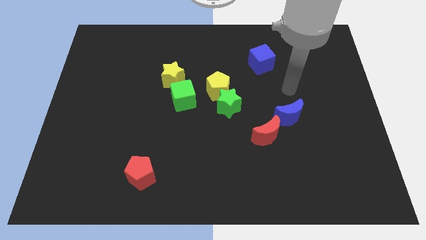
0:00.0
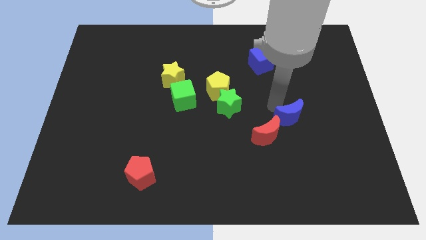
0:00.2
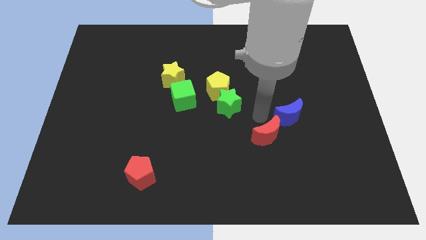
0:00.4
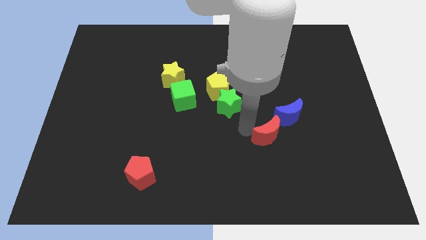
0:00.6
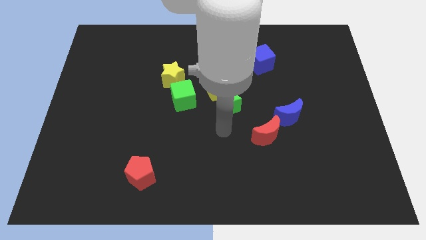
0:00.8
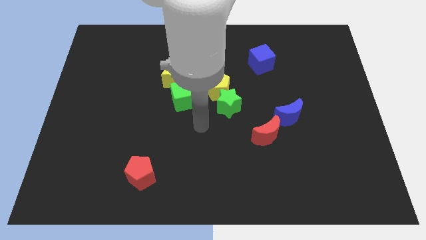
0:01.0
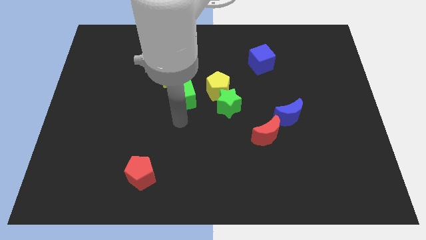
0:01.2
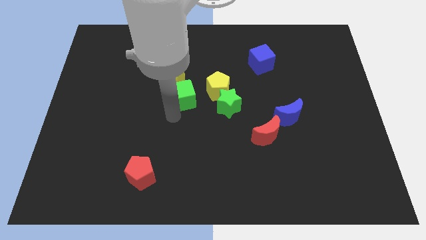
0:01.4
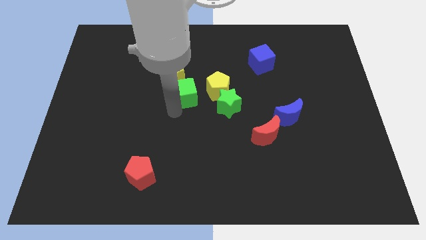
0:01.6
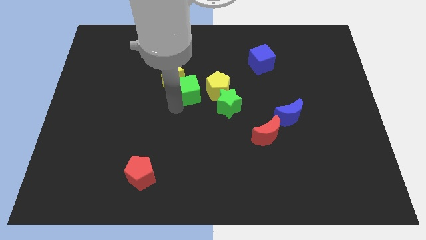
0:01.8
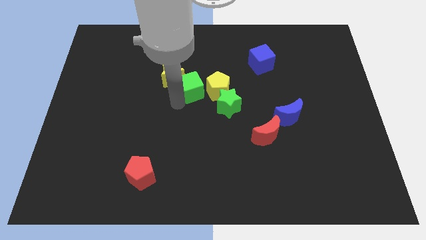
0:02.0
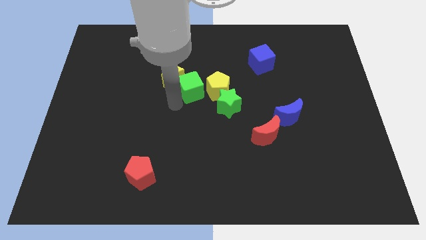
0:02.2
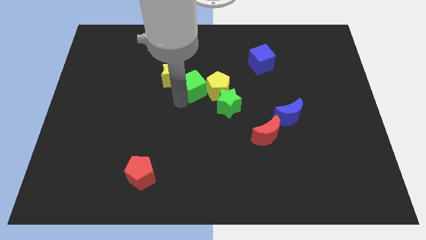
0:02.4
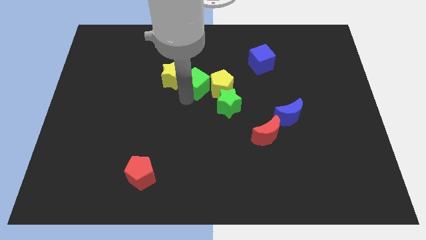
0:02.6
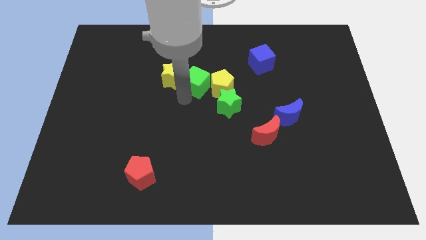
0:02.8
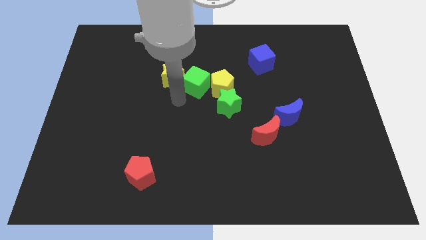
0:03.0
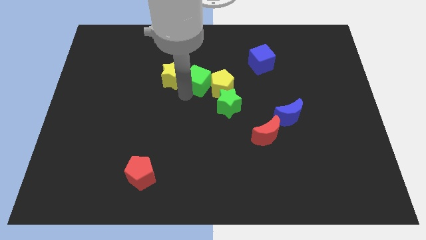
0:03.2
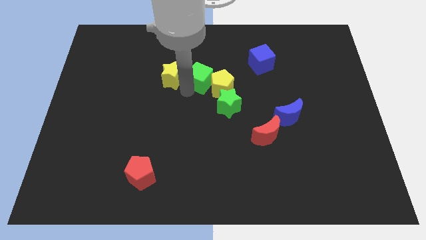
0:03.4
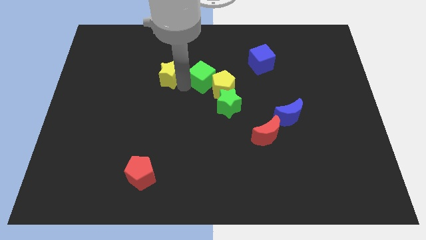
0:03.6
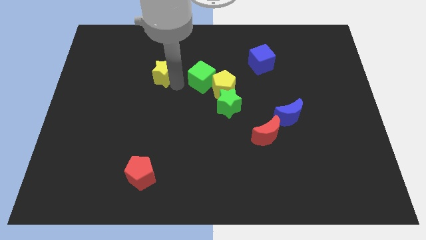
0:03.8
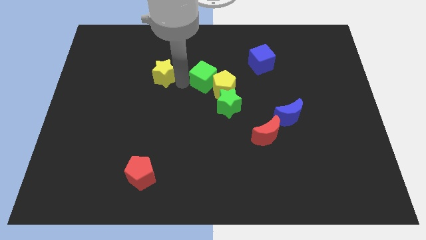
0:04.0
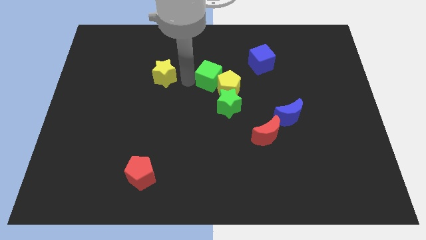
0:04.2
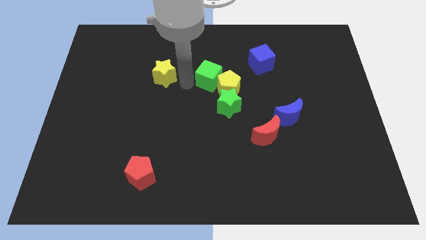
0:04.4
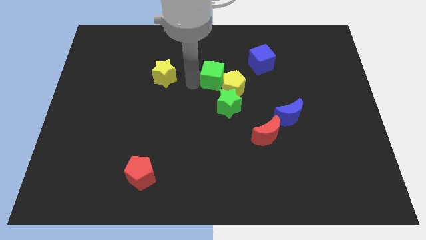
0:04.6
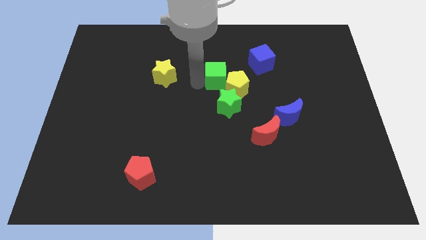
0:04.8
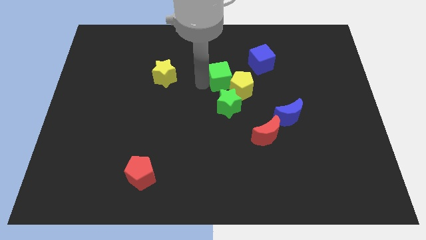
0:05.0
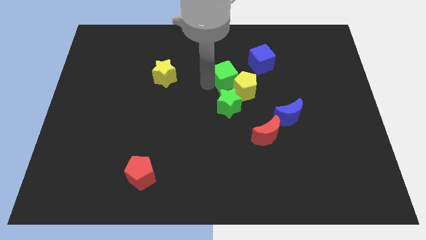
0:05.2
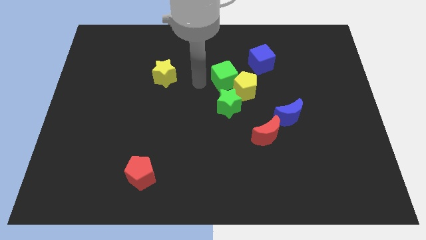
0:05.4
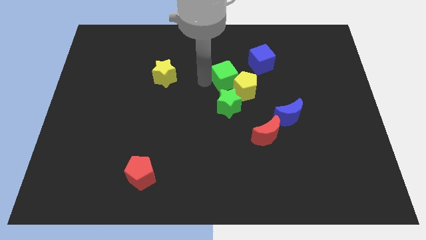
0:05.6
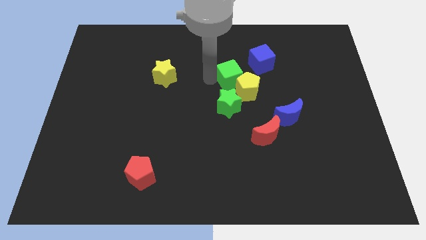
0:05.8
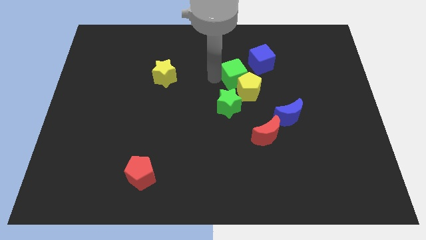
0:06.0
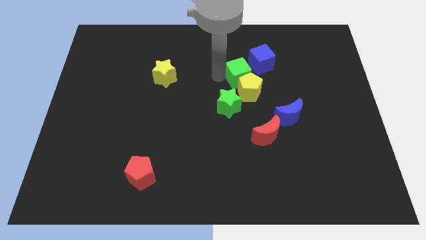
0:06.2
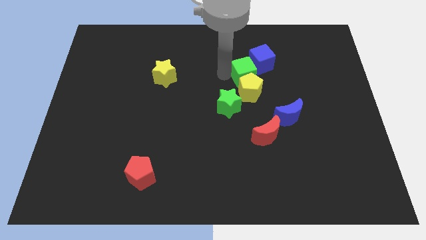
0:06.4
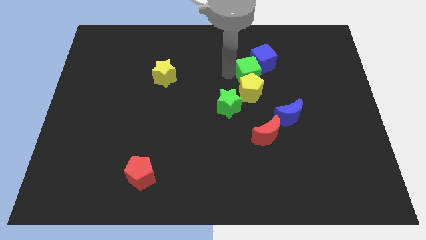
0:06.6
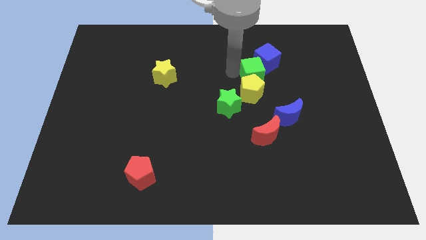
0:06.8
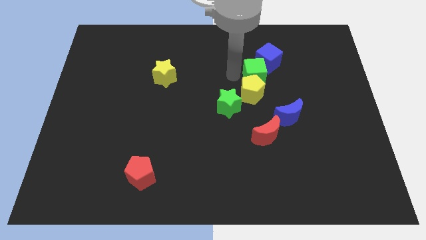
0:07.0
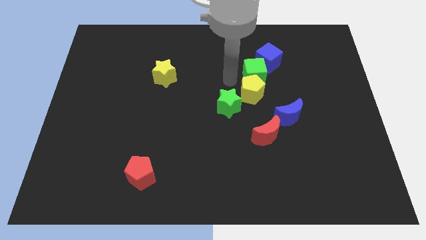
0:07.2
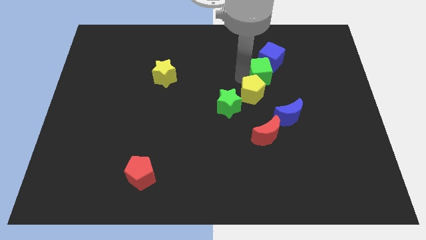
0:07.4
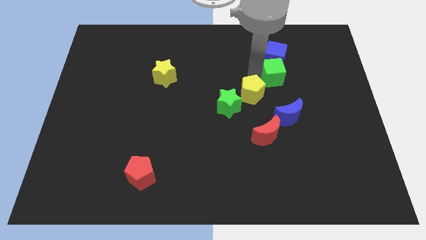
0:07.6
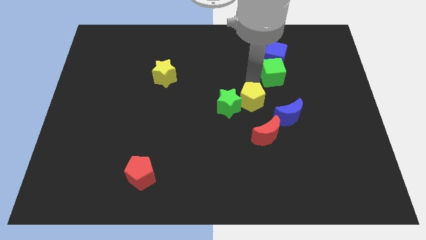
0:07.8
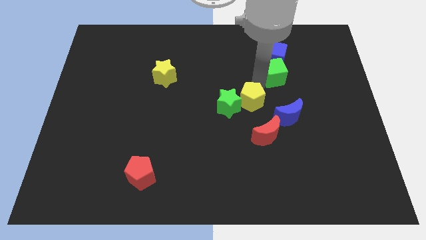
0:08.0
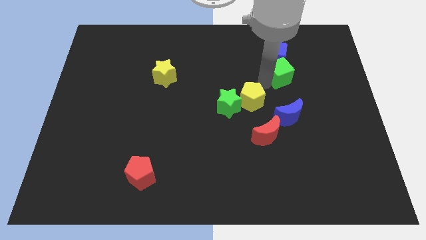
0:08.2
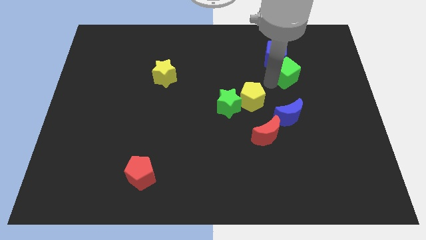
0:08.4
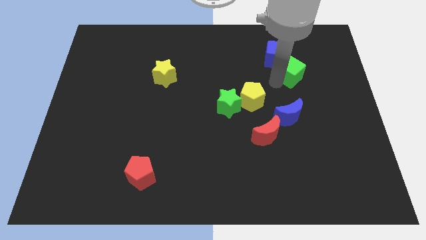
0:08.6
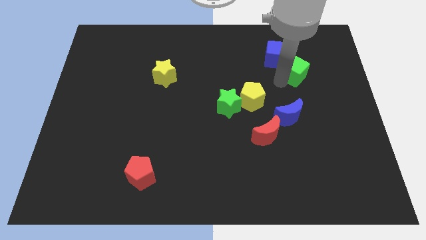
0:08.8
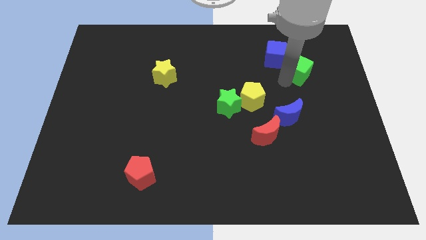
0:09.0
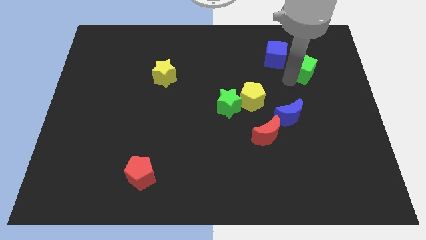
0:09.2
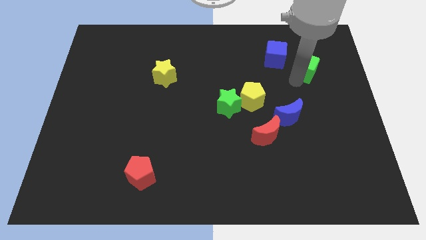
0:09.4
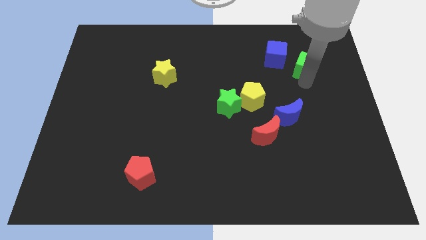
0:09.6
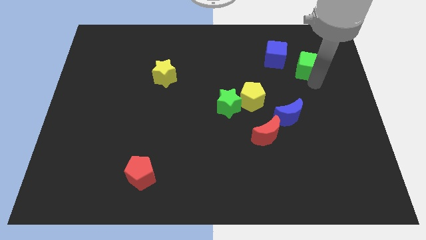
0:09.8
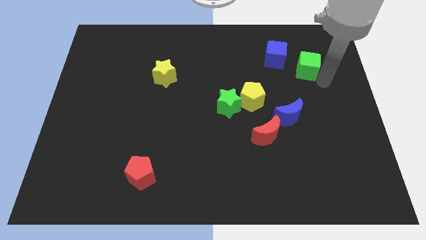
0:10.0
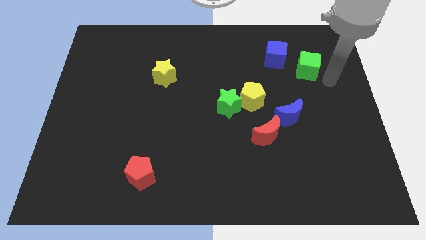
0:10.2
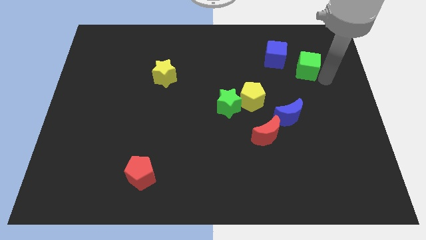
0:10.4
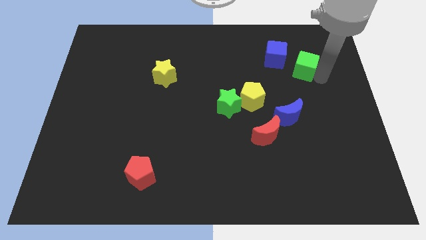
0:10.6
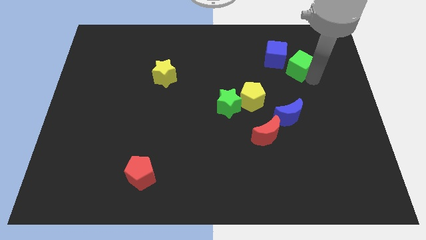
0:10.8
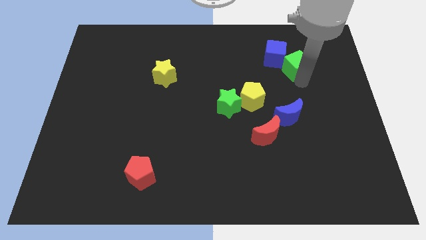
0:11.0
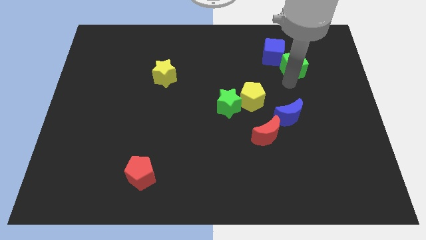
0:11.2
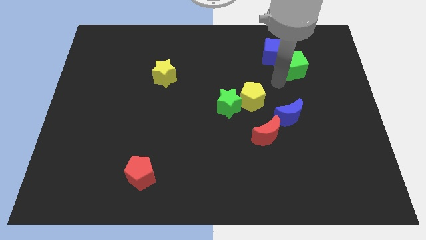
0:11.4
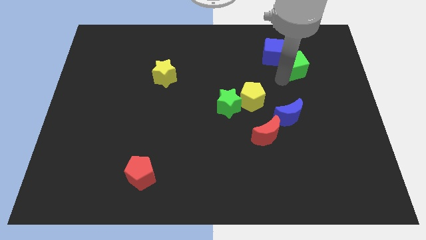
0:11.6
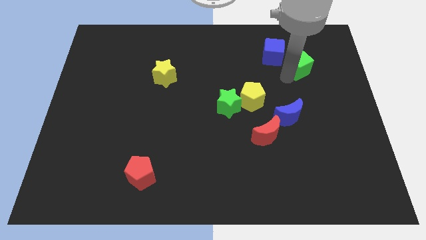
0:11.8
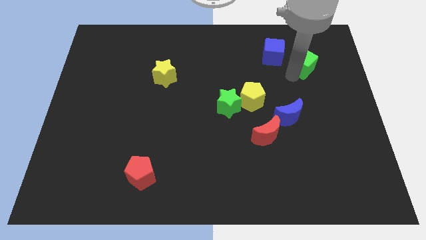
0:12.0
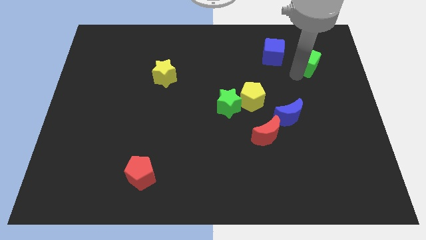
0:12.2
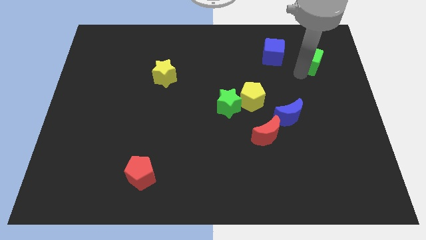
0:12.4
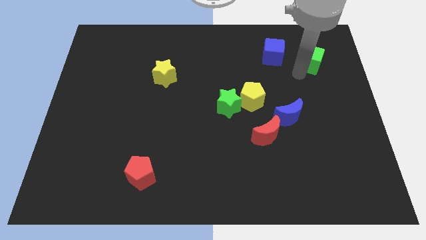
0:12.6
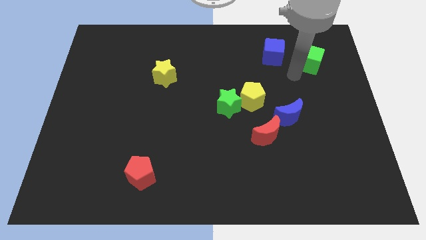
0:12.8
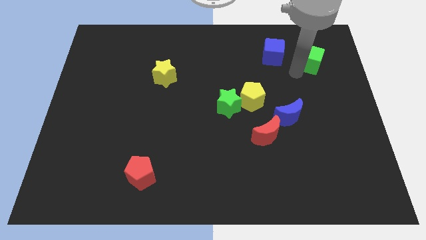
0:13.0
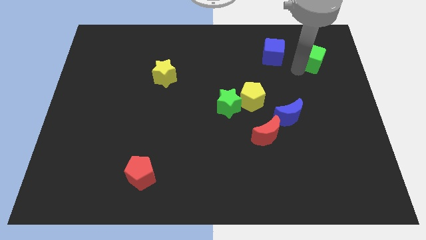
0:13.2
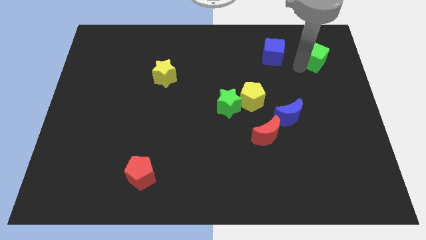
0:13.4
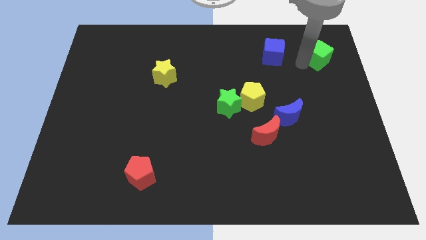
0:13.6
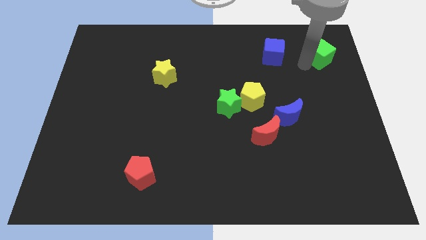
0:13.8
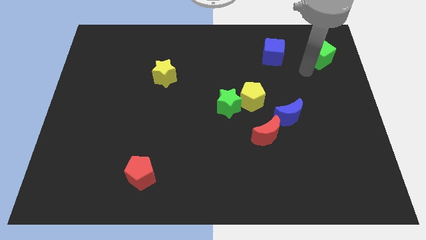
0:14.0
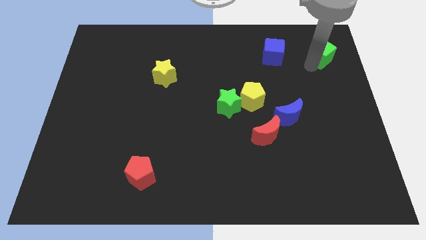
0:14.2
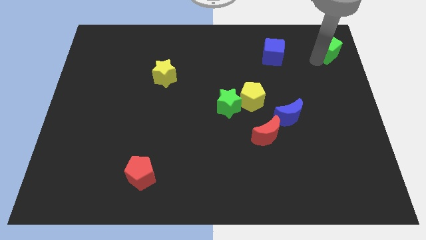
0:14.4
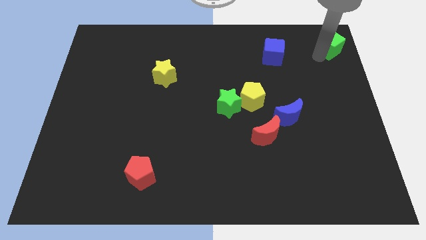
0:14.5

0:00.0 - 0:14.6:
push the green cube to the top right of the board

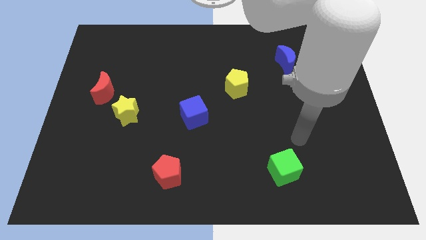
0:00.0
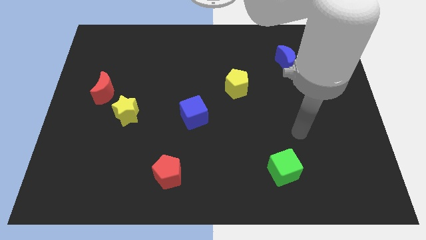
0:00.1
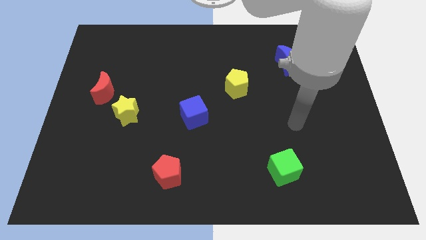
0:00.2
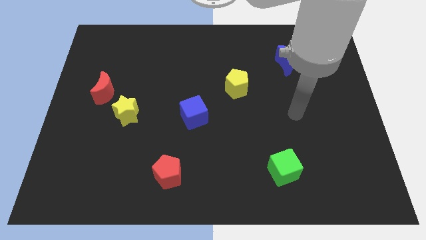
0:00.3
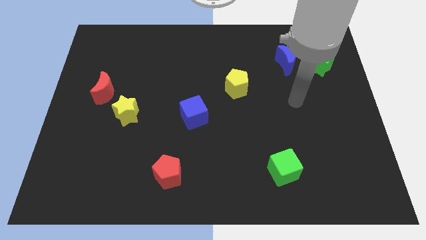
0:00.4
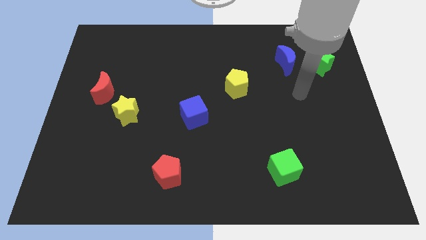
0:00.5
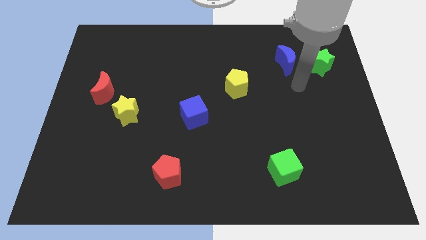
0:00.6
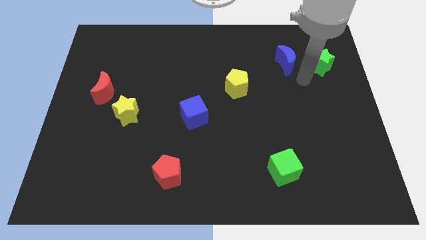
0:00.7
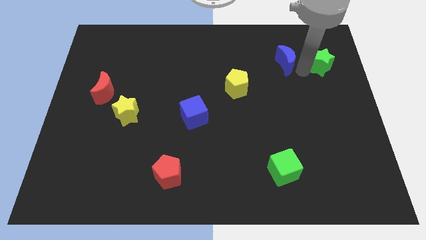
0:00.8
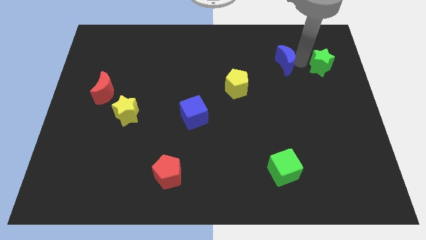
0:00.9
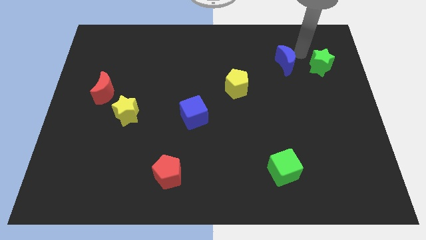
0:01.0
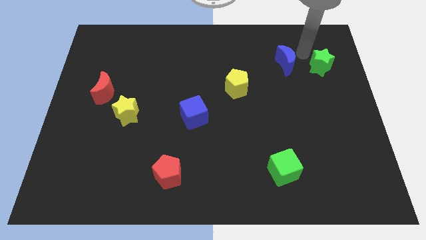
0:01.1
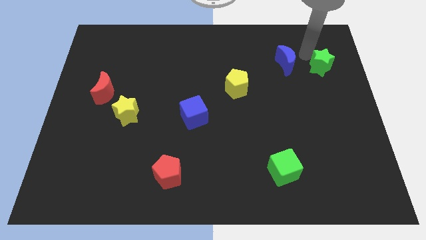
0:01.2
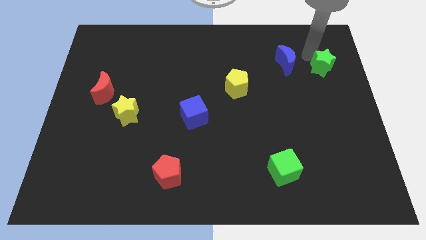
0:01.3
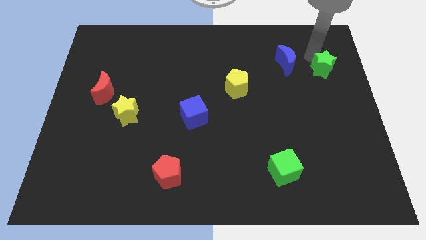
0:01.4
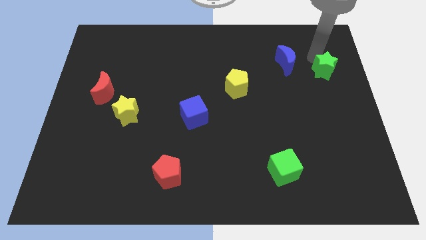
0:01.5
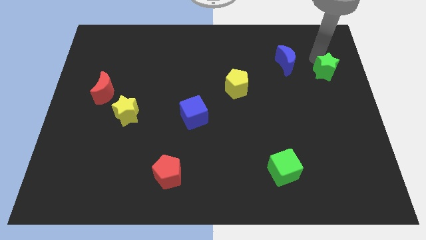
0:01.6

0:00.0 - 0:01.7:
put the green star to the right side
